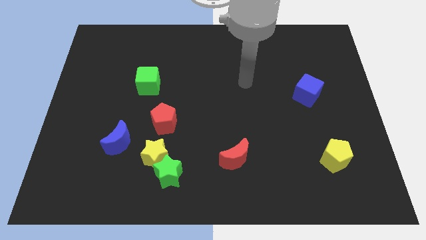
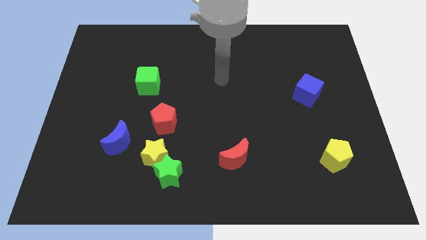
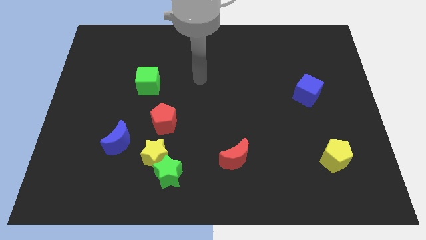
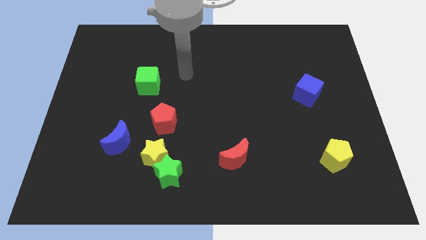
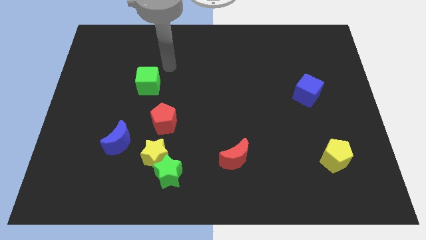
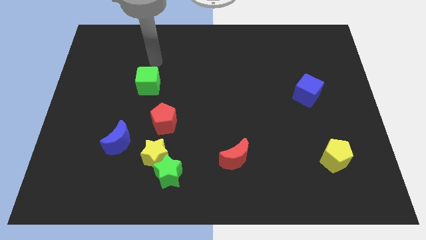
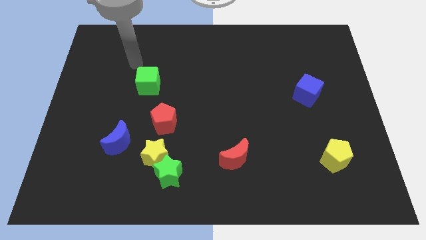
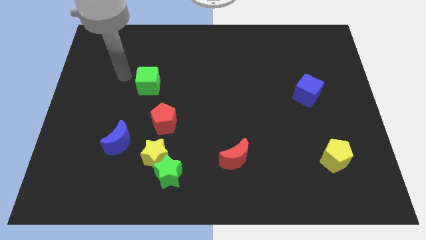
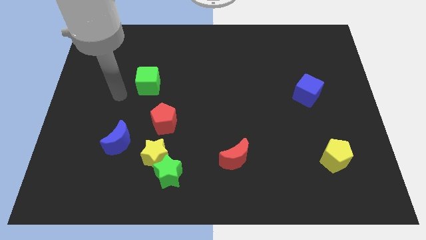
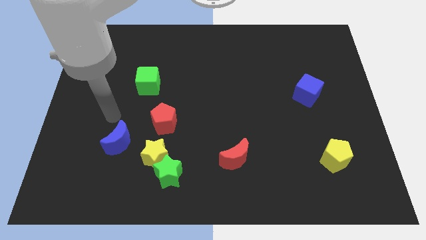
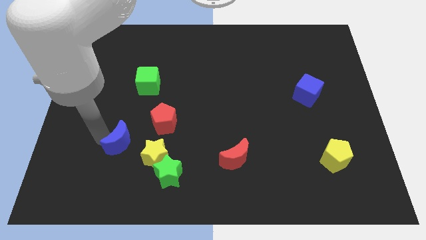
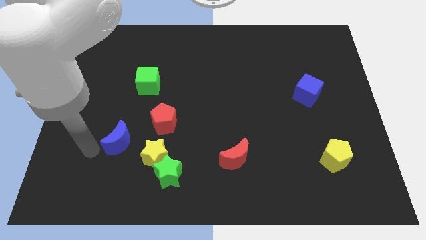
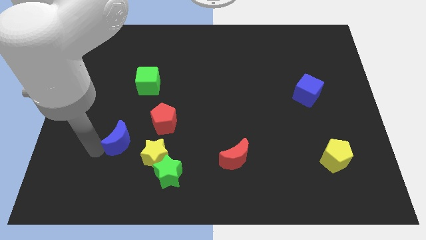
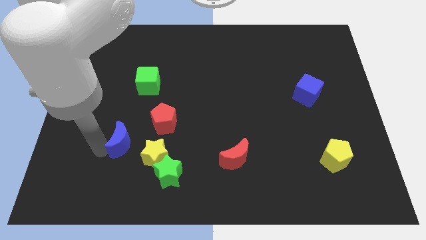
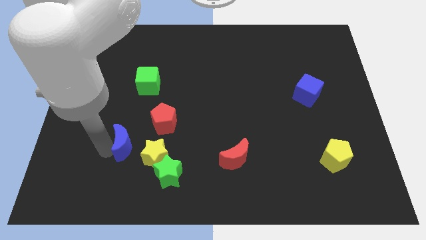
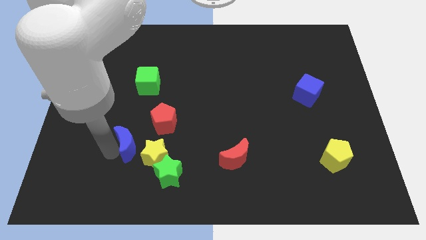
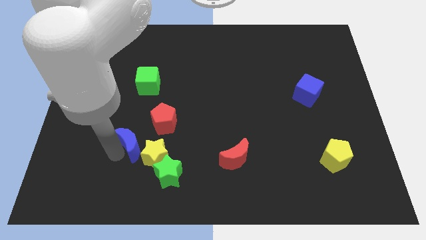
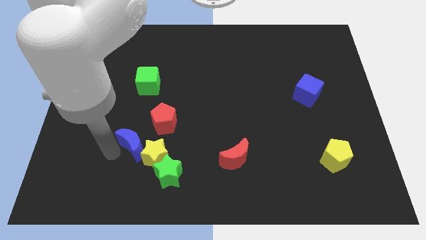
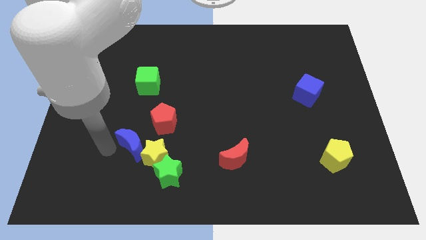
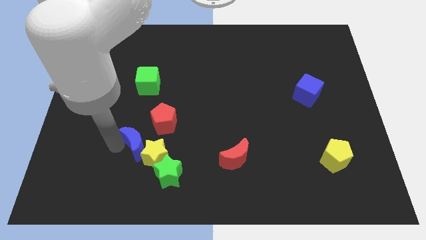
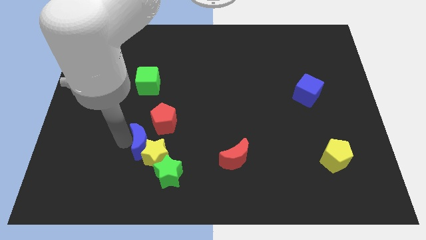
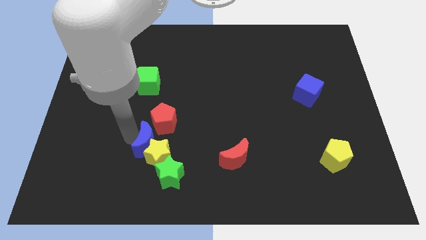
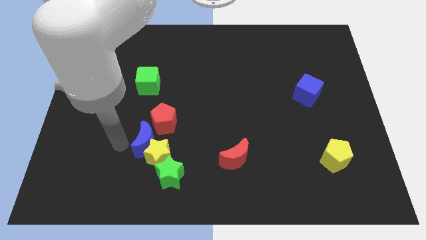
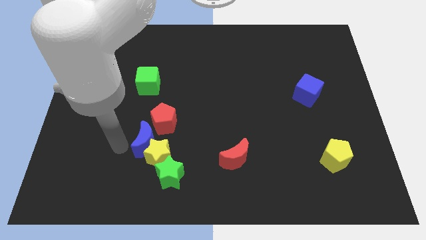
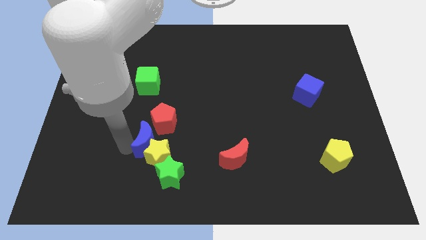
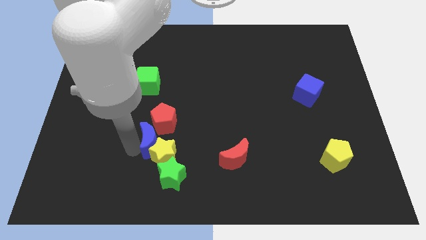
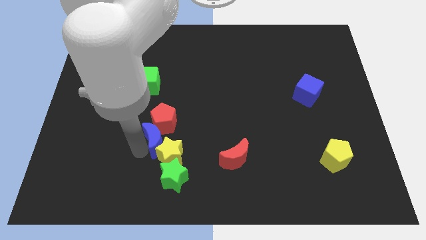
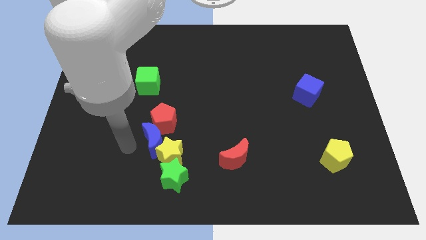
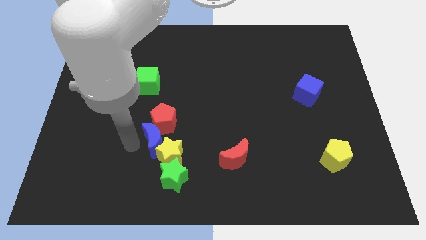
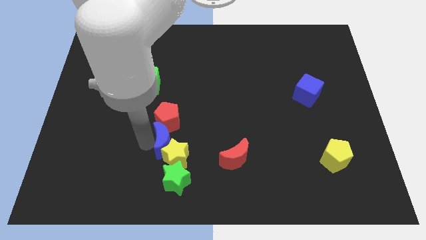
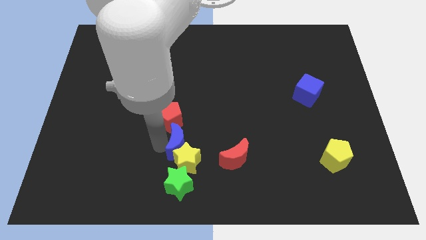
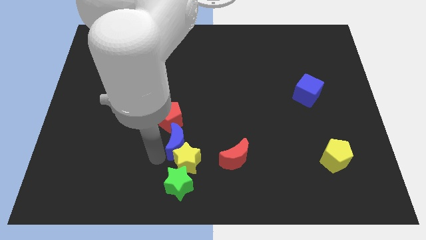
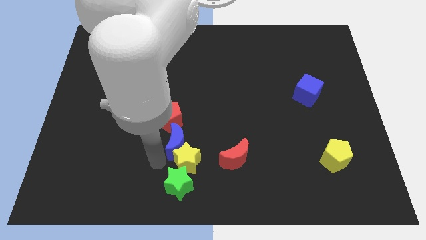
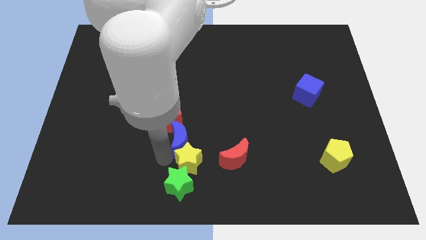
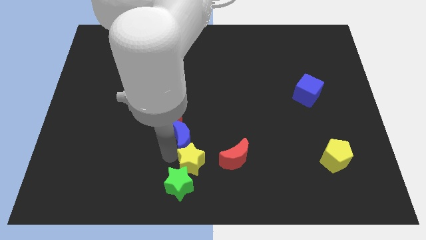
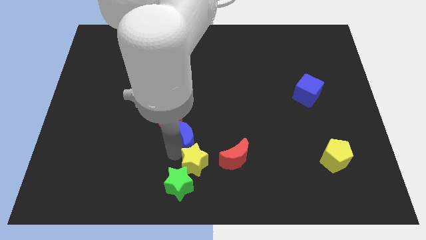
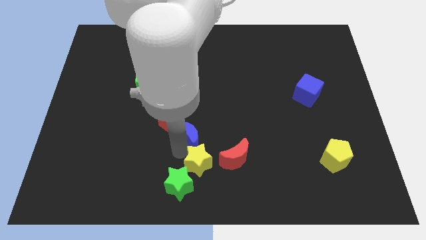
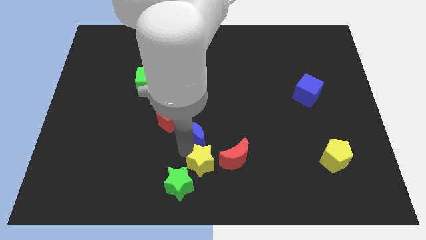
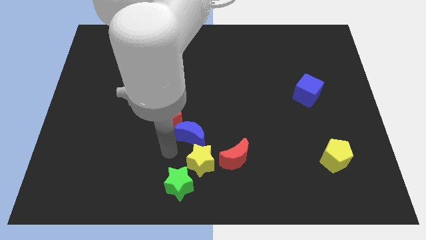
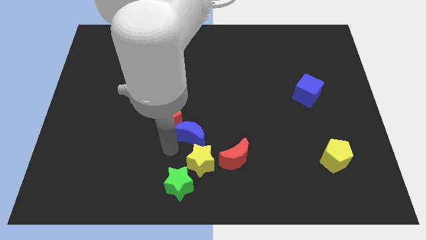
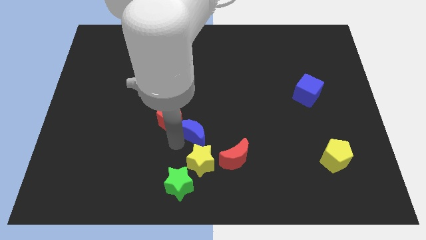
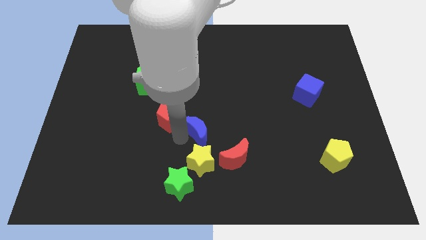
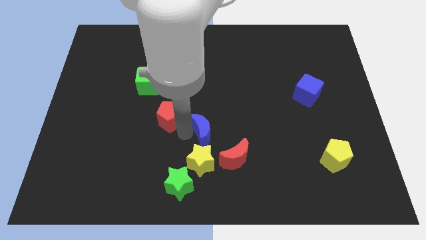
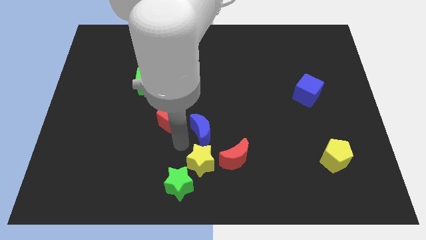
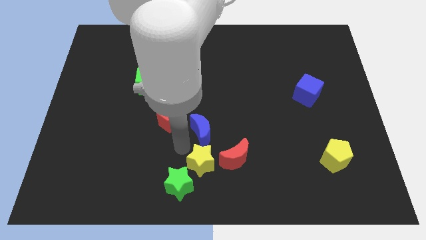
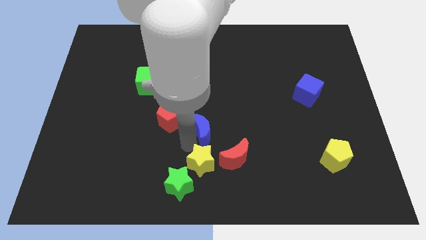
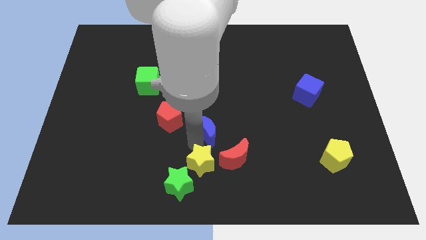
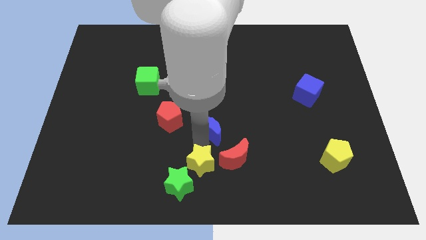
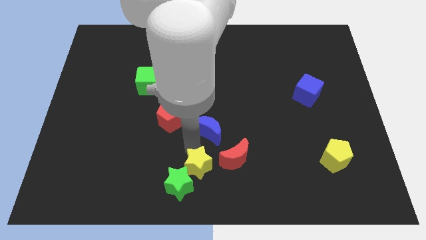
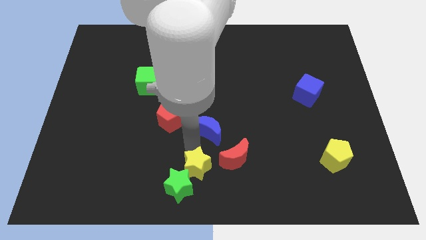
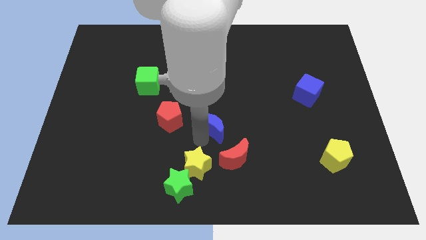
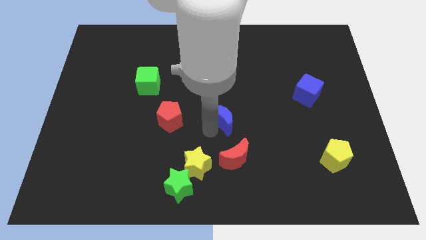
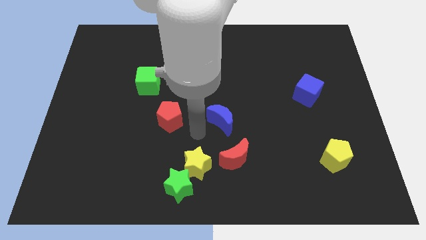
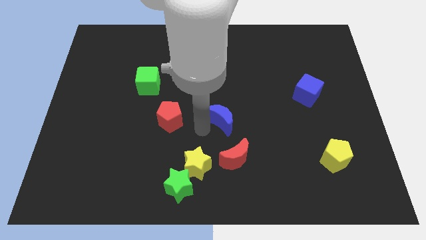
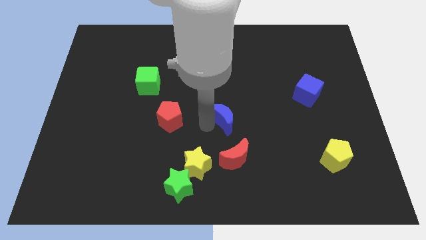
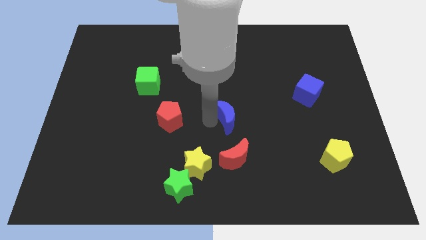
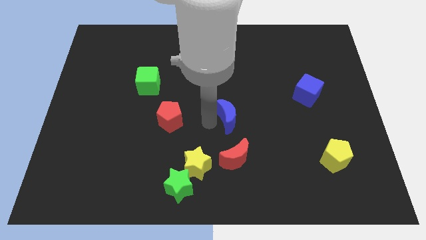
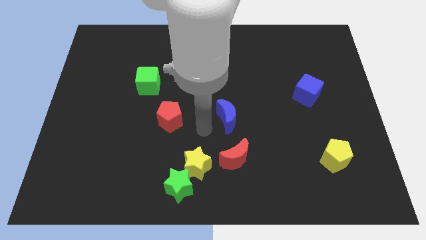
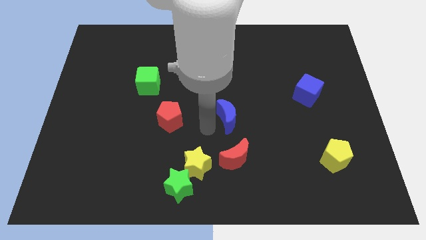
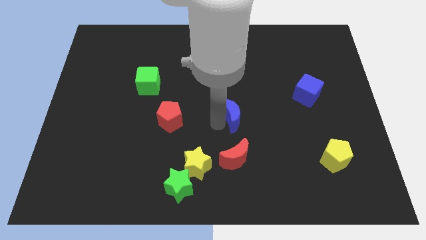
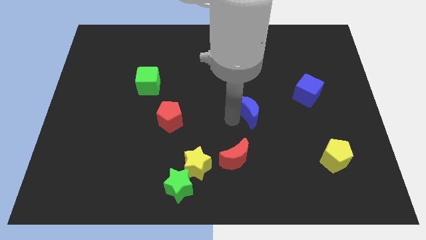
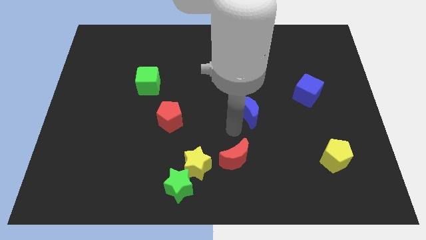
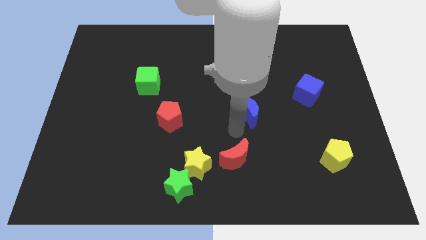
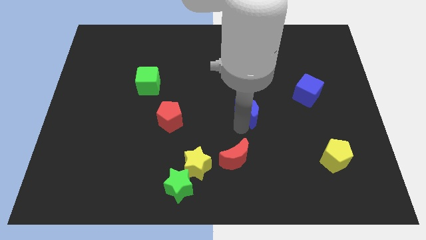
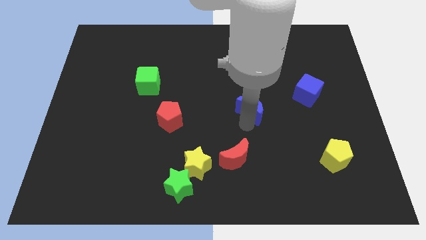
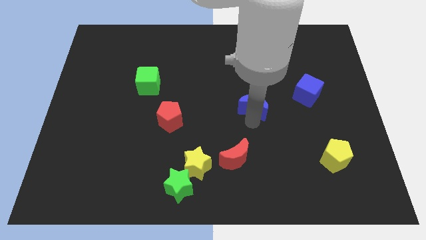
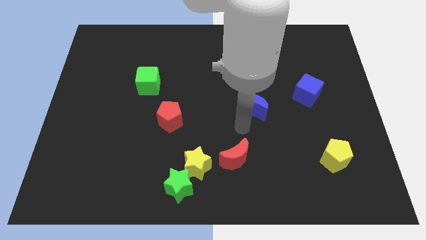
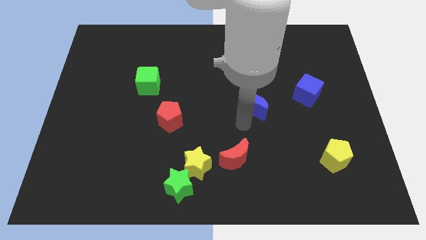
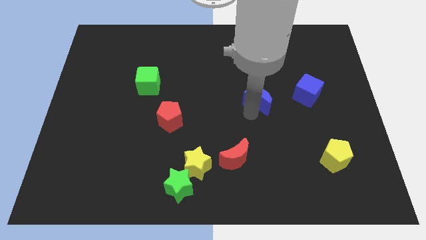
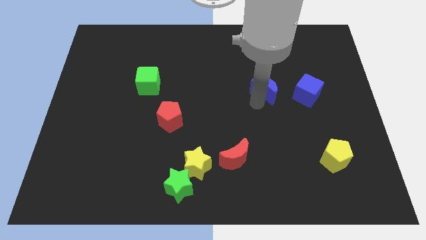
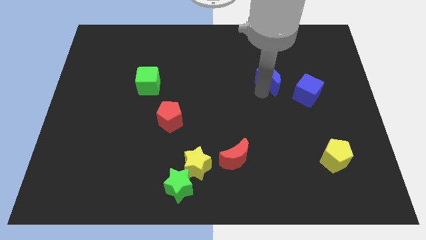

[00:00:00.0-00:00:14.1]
move the blue moon diagonally up and to the left of the blue cube
